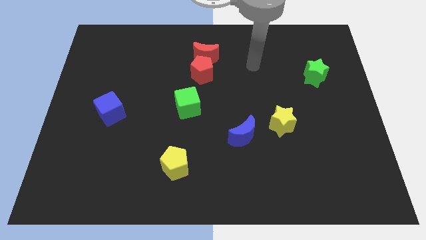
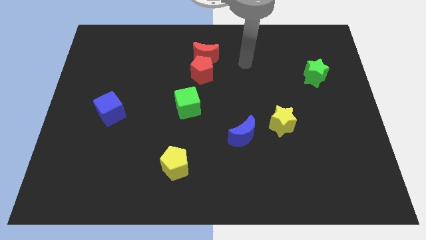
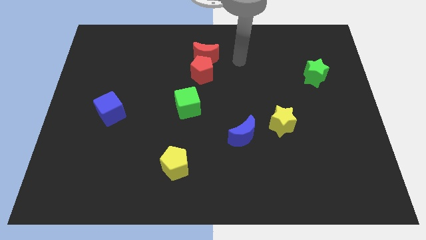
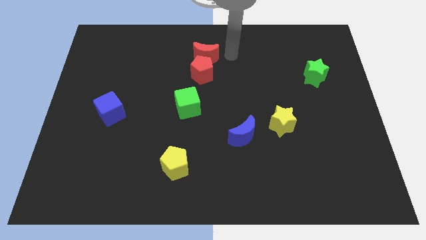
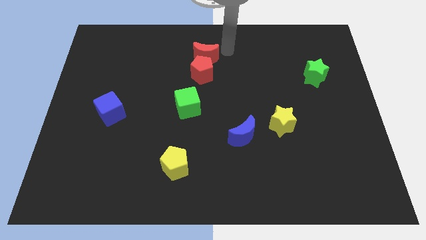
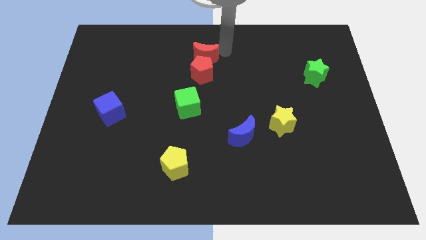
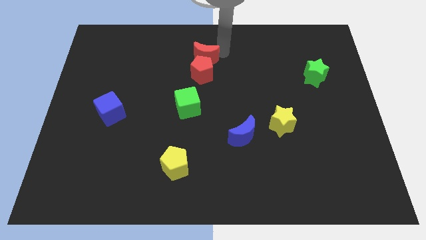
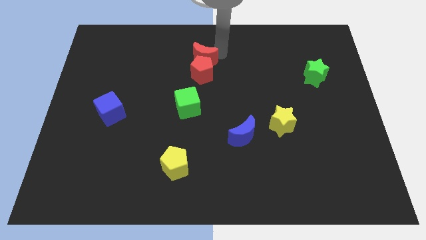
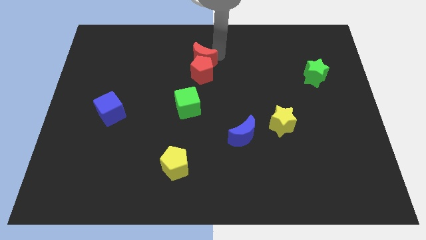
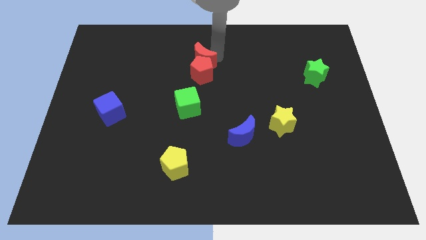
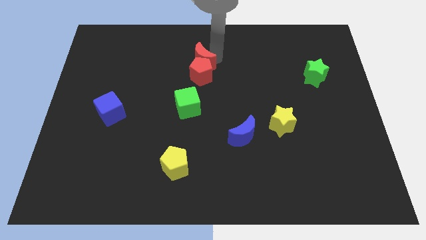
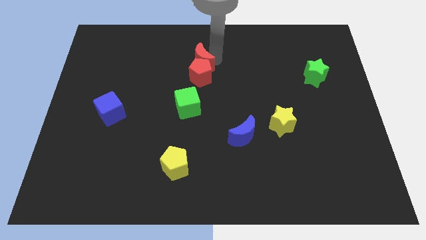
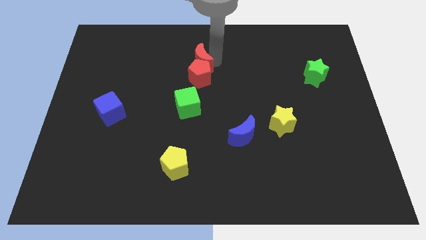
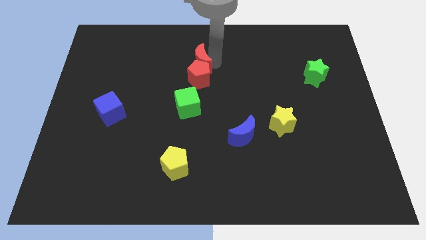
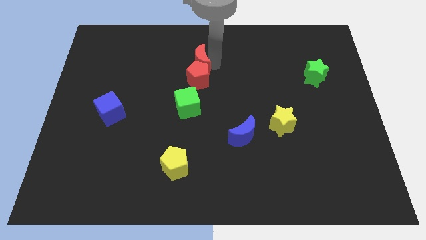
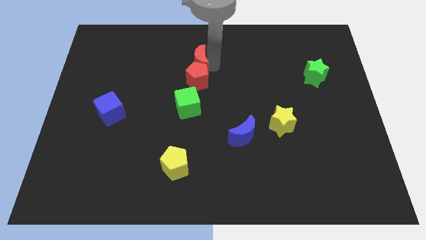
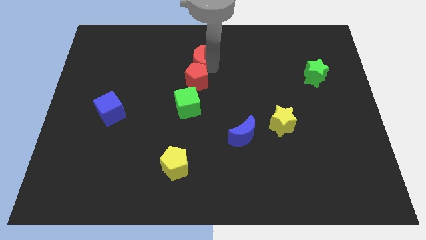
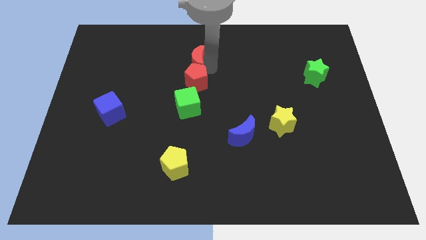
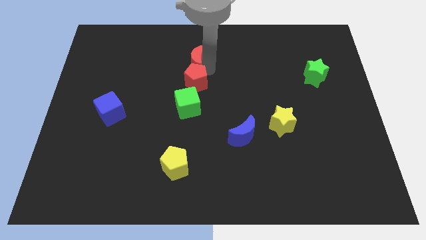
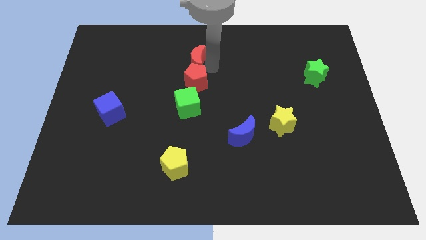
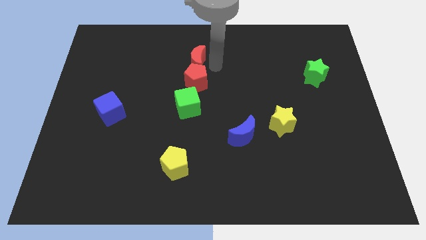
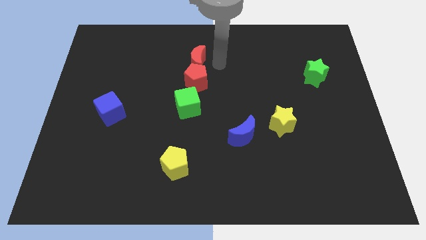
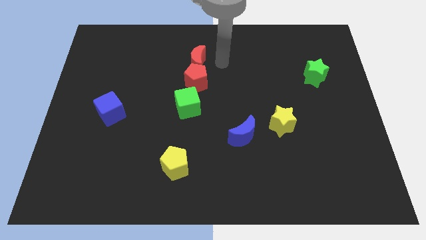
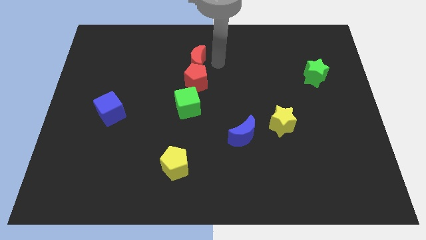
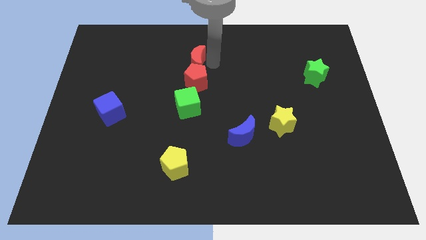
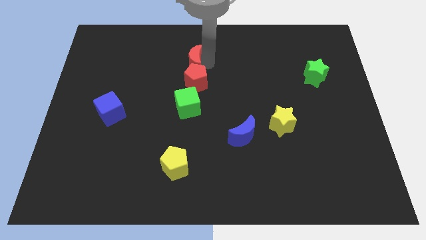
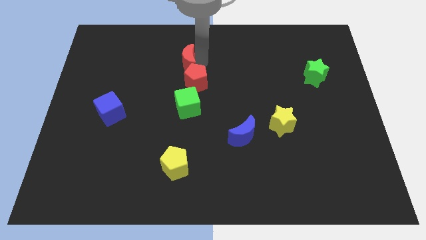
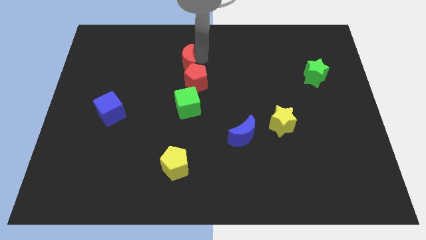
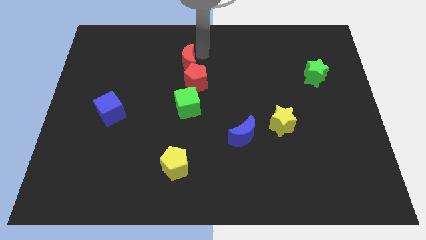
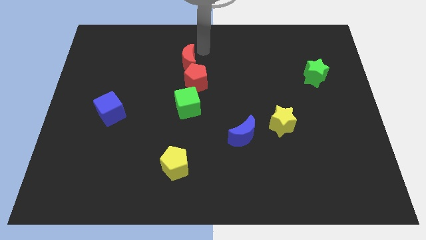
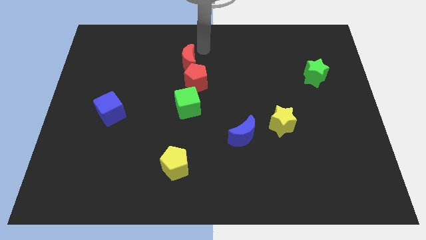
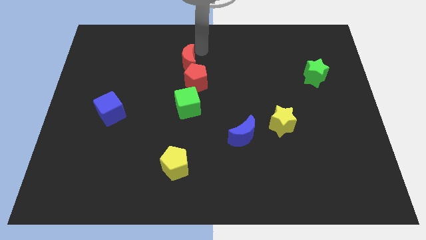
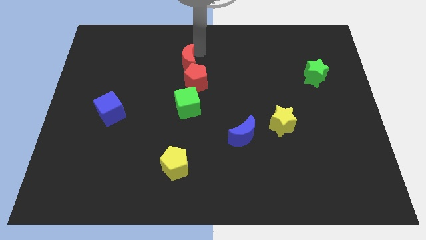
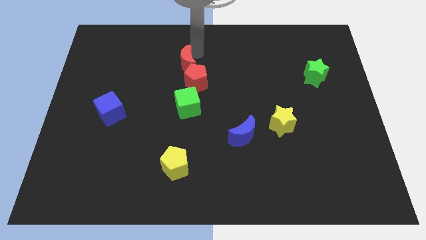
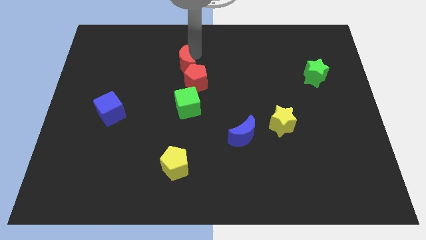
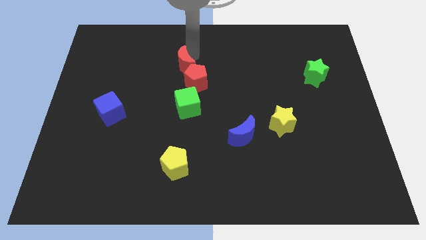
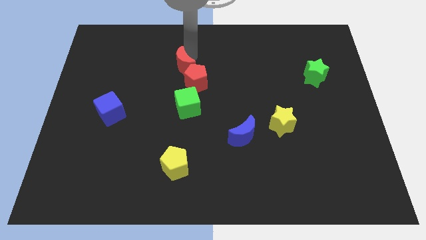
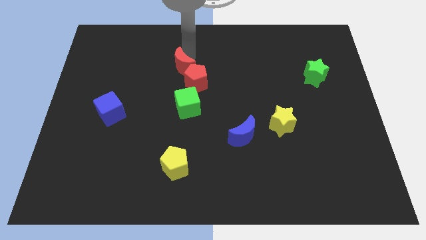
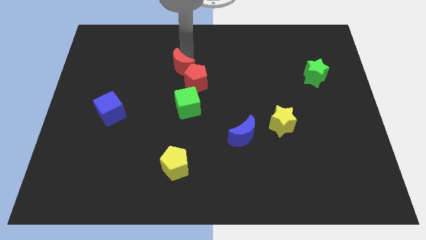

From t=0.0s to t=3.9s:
slightly move the red moon down and to the left diagonally

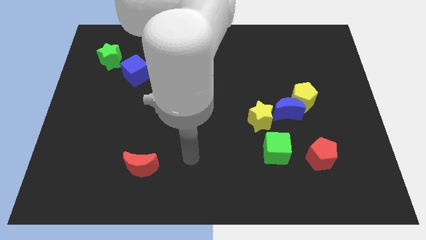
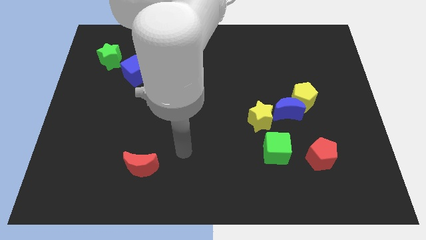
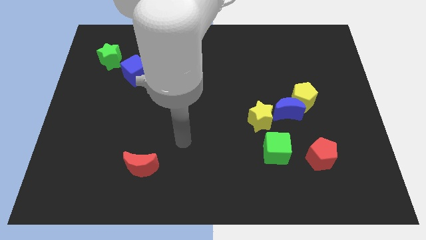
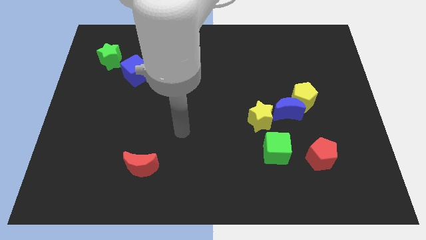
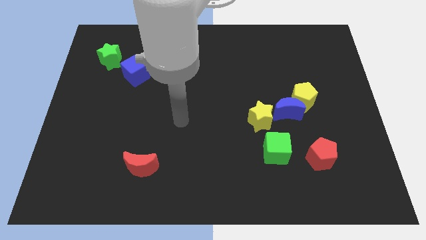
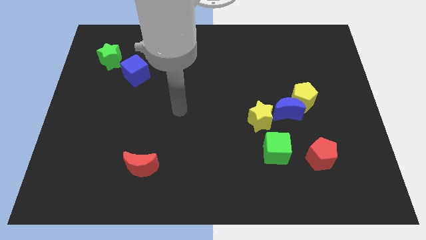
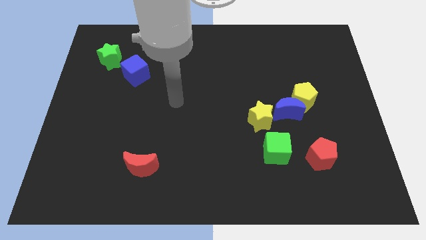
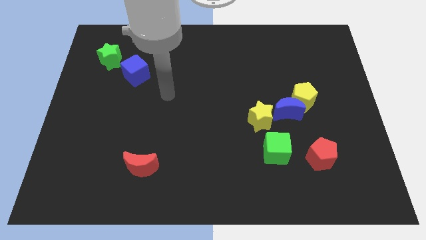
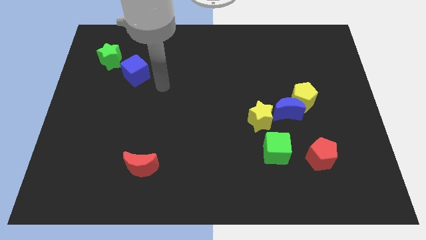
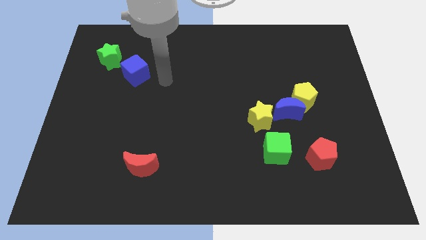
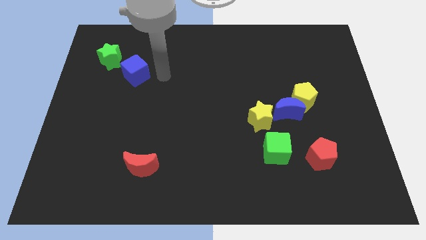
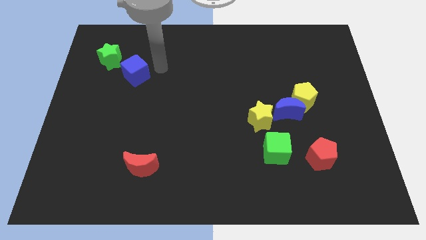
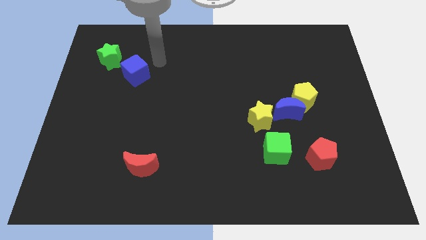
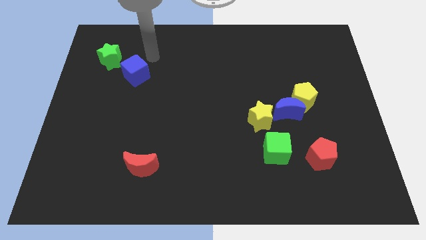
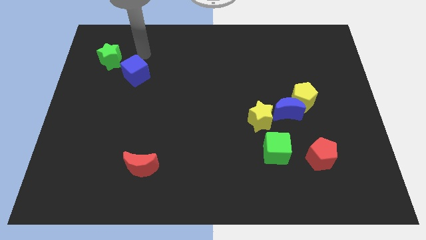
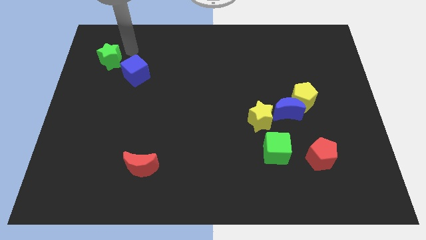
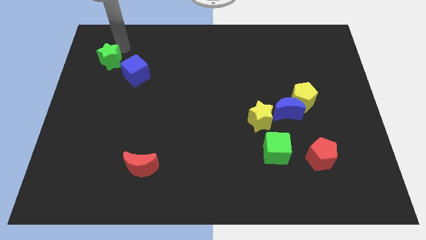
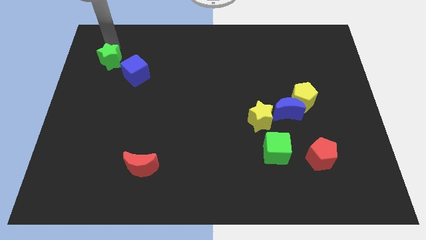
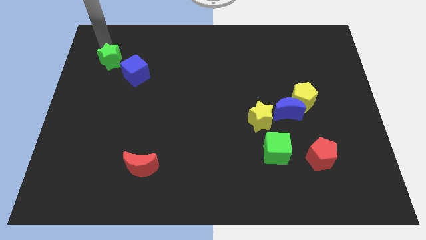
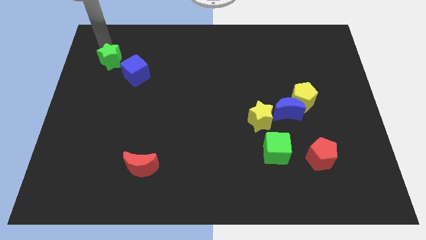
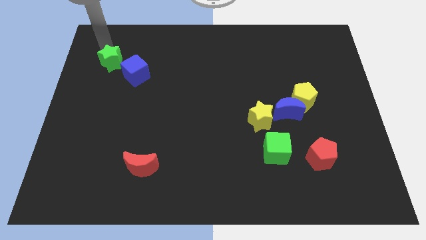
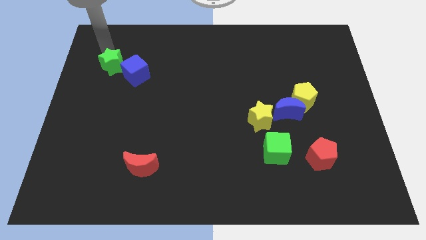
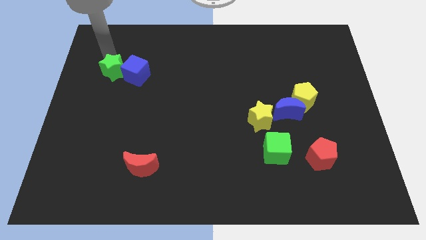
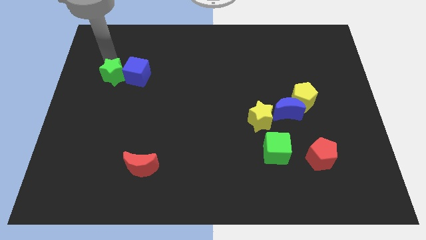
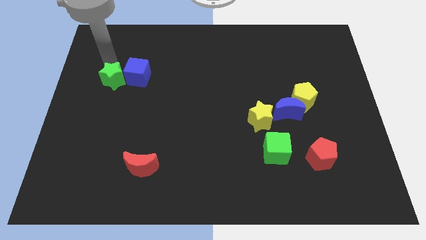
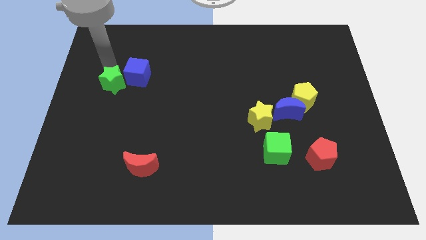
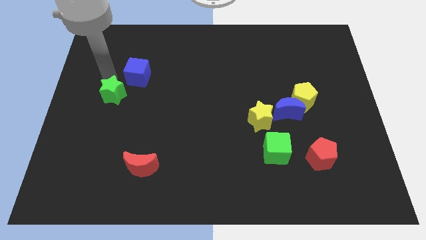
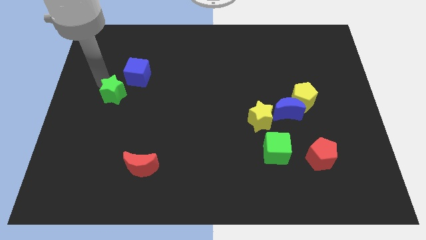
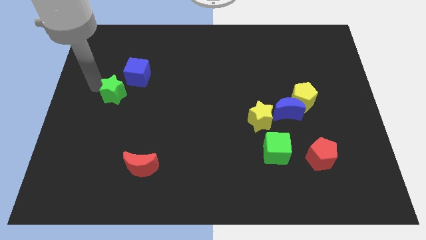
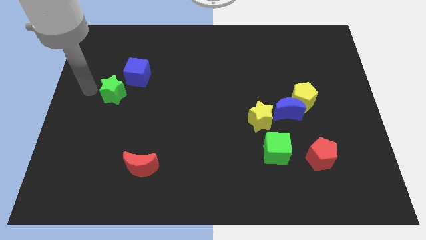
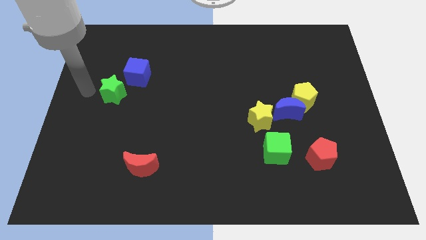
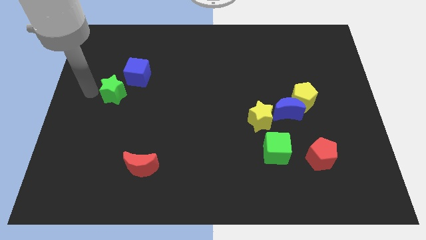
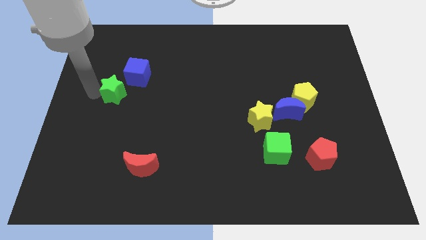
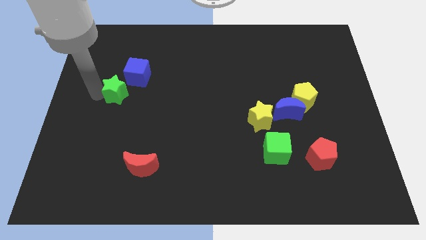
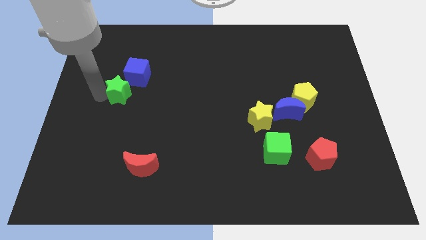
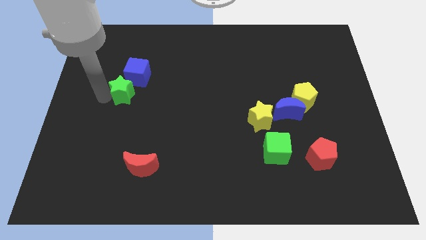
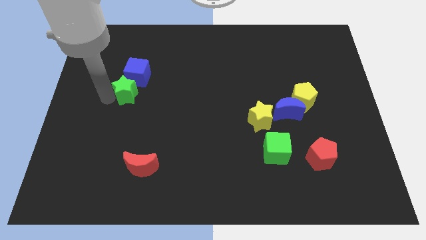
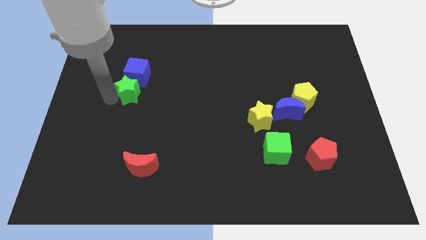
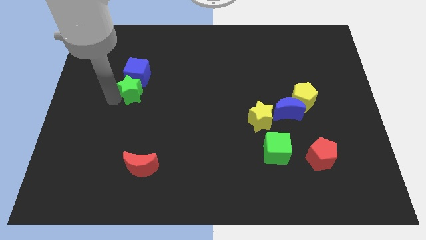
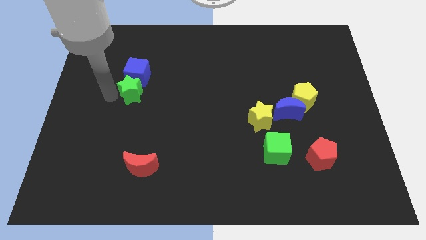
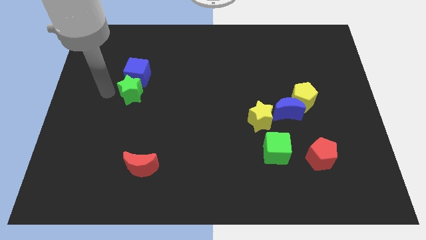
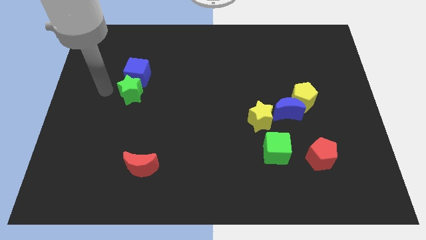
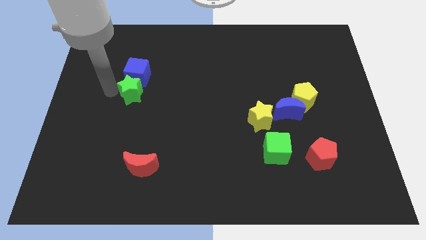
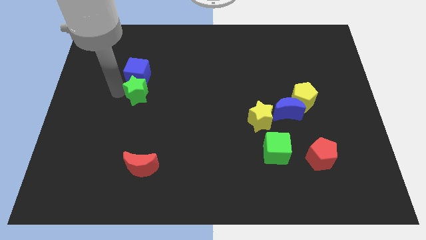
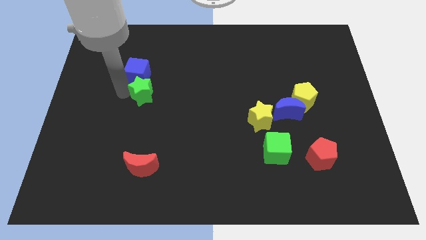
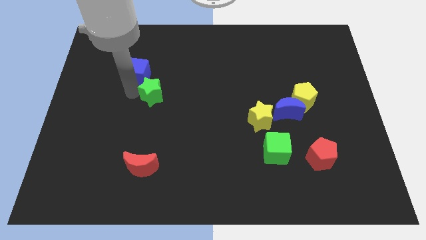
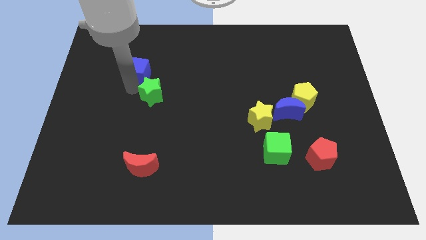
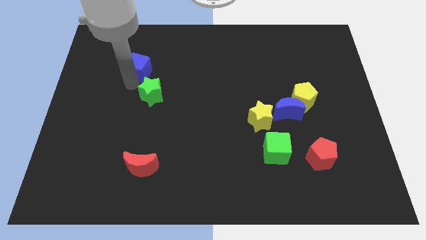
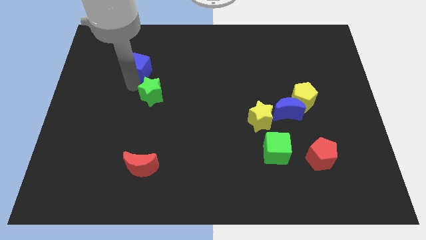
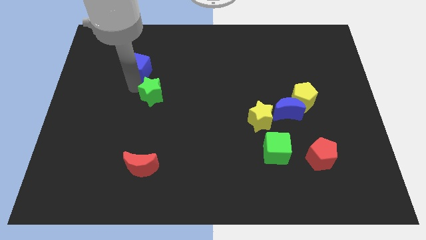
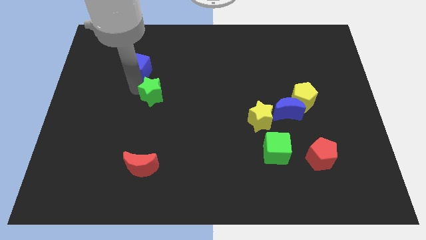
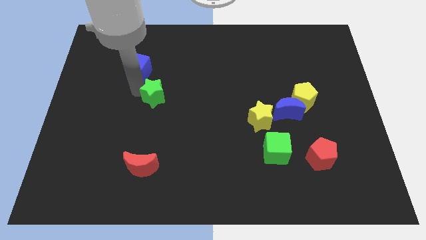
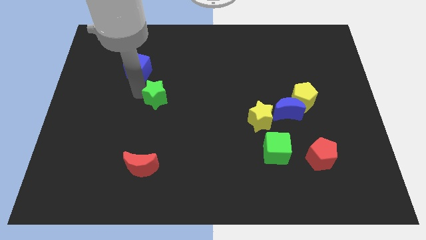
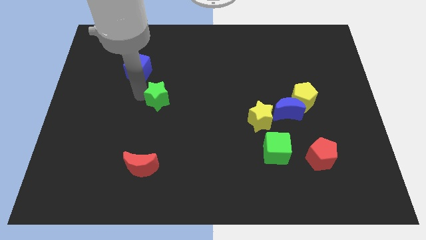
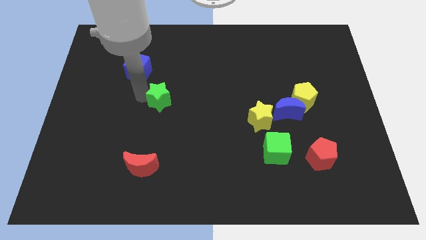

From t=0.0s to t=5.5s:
slide the green star diagonally downwards and right
